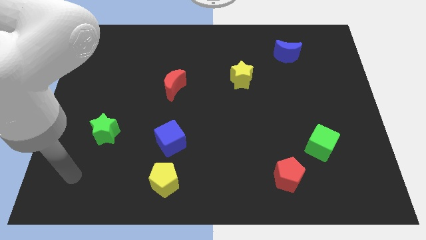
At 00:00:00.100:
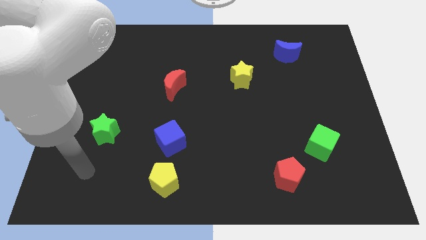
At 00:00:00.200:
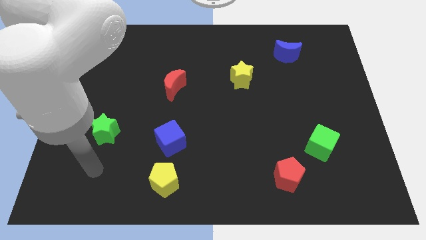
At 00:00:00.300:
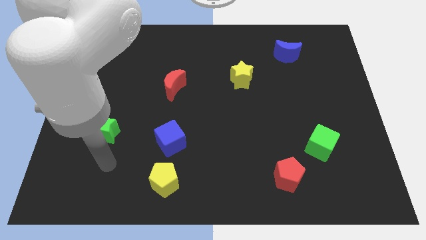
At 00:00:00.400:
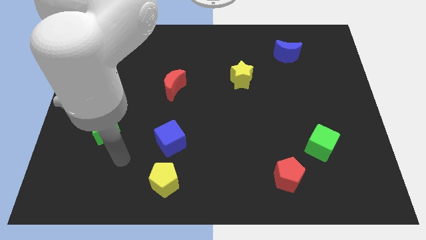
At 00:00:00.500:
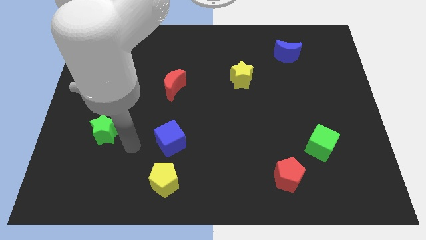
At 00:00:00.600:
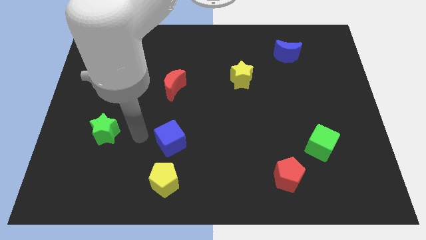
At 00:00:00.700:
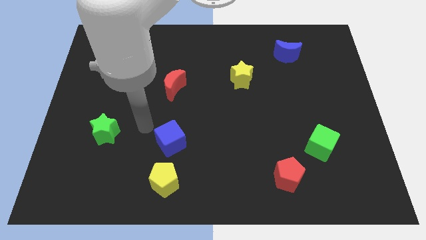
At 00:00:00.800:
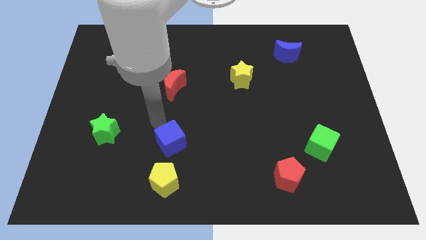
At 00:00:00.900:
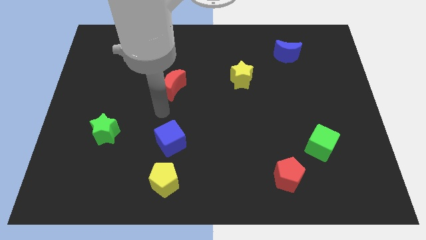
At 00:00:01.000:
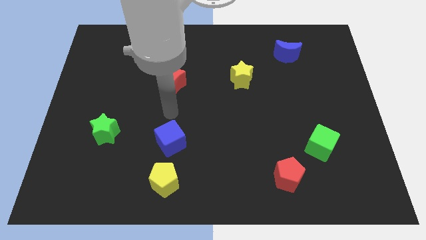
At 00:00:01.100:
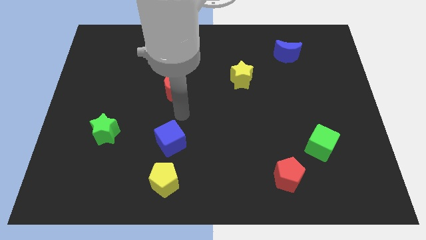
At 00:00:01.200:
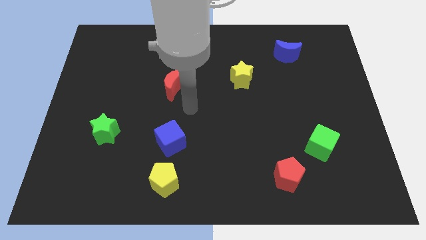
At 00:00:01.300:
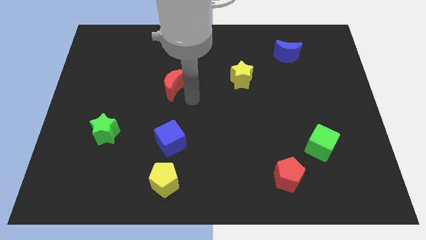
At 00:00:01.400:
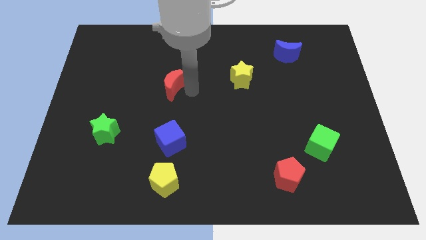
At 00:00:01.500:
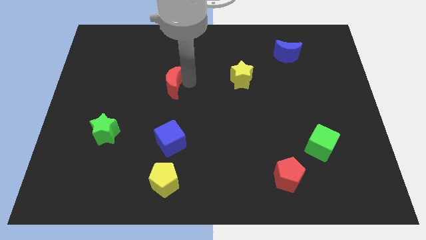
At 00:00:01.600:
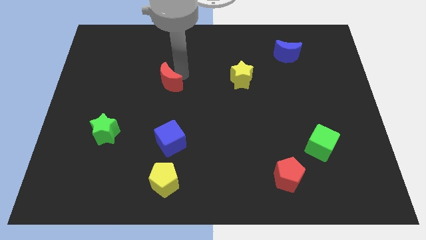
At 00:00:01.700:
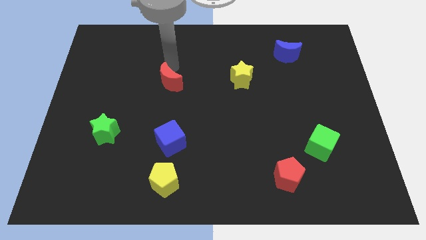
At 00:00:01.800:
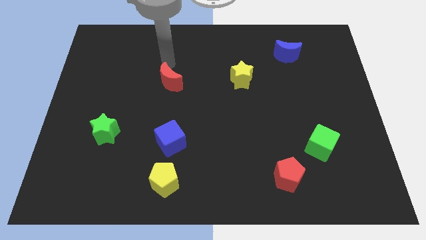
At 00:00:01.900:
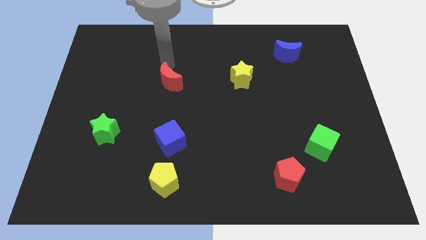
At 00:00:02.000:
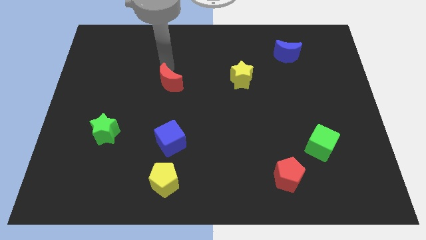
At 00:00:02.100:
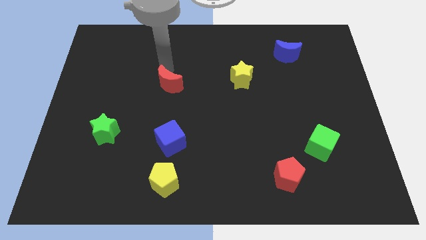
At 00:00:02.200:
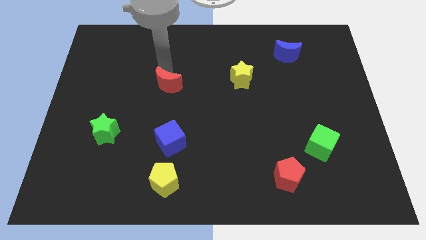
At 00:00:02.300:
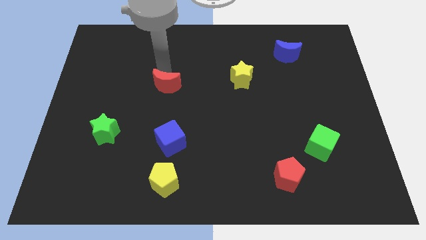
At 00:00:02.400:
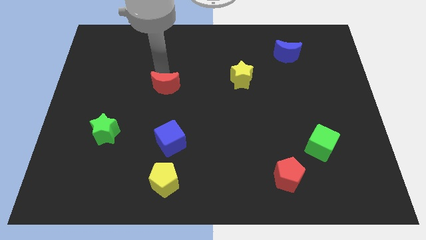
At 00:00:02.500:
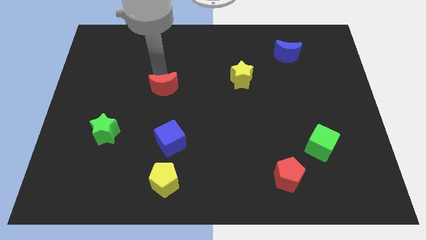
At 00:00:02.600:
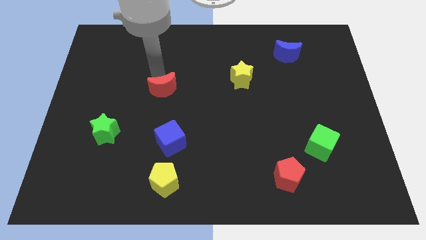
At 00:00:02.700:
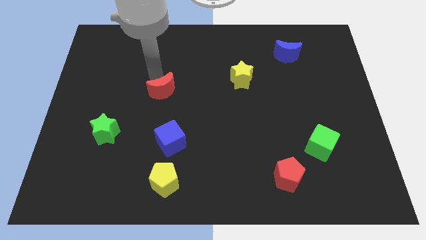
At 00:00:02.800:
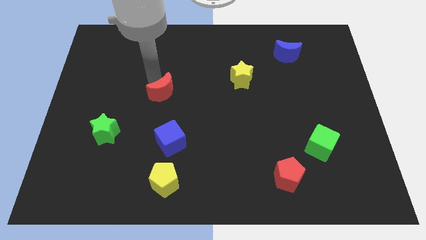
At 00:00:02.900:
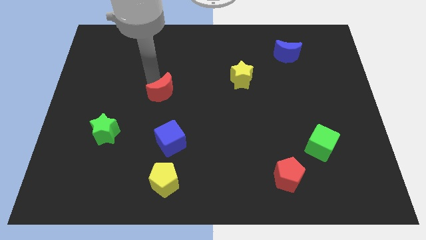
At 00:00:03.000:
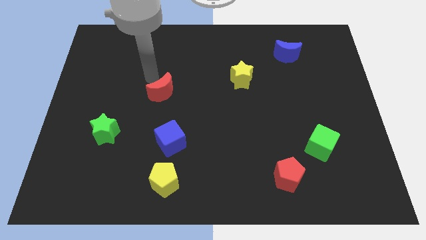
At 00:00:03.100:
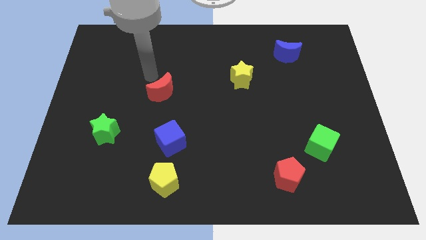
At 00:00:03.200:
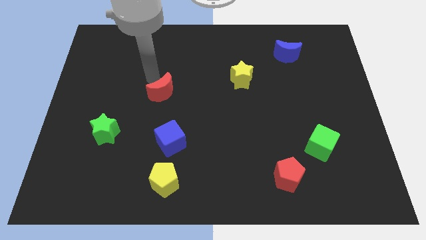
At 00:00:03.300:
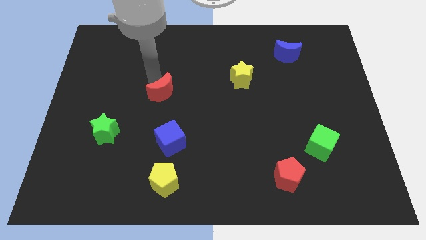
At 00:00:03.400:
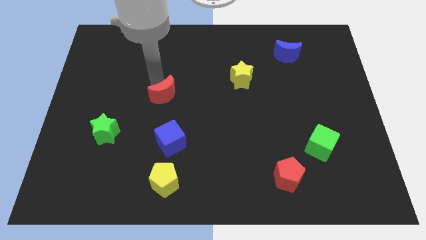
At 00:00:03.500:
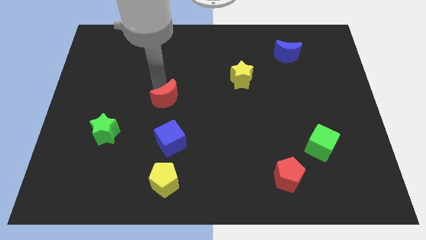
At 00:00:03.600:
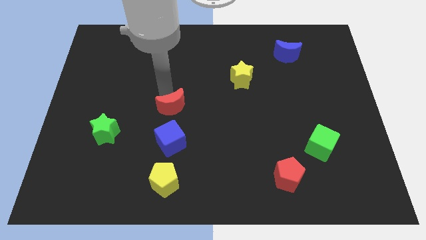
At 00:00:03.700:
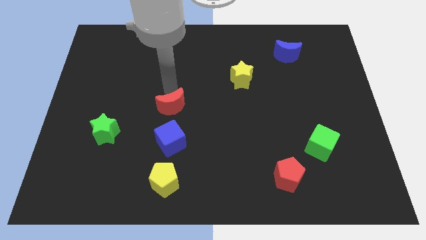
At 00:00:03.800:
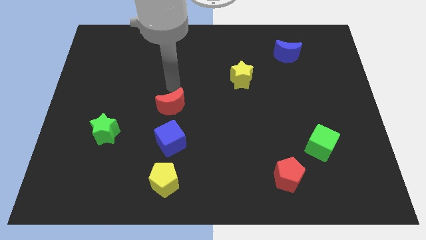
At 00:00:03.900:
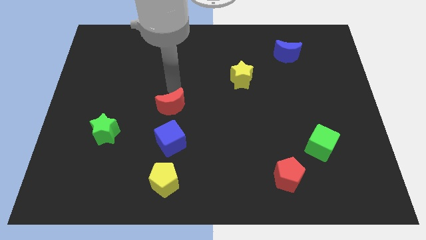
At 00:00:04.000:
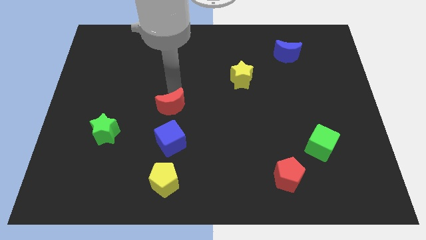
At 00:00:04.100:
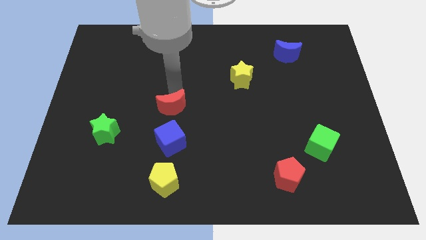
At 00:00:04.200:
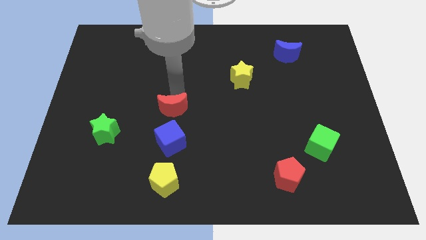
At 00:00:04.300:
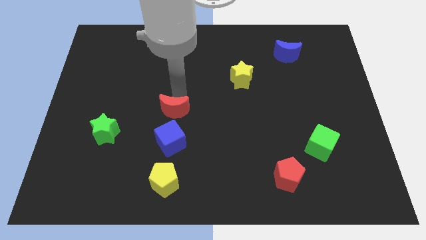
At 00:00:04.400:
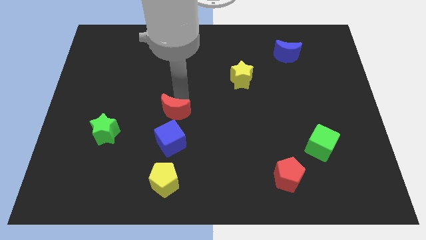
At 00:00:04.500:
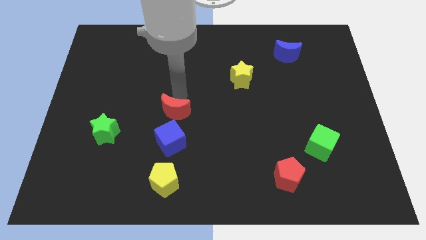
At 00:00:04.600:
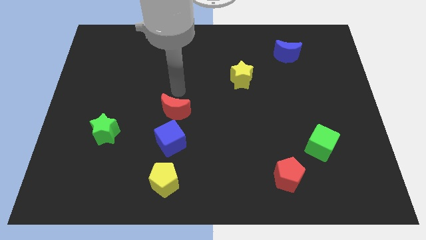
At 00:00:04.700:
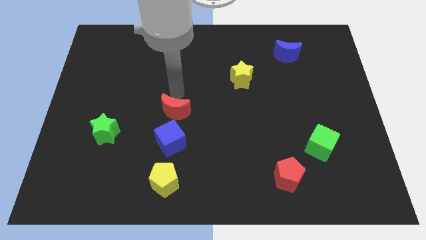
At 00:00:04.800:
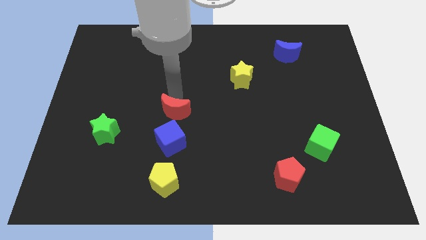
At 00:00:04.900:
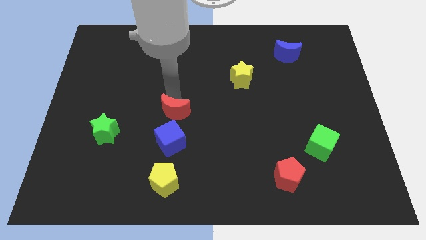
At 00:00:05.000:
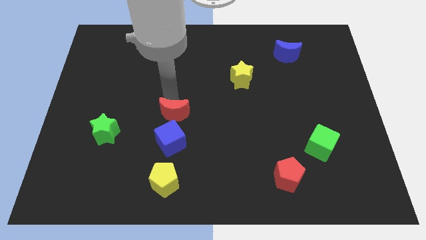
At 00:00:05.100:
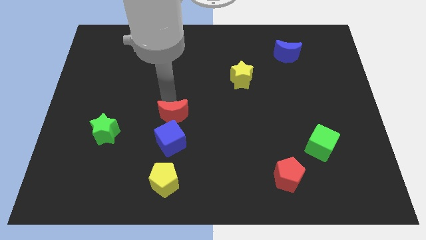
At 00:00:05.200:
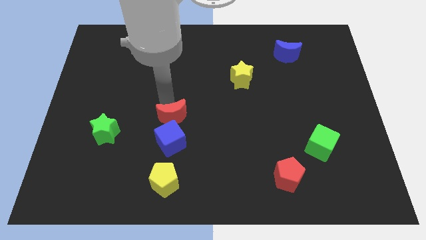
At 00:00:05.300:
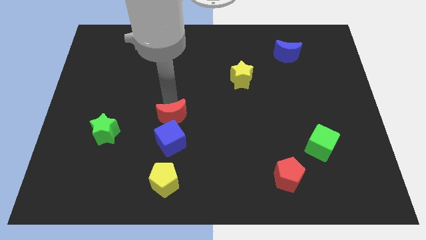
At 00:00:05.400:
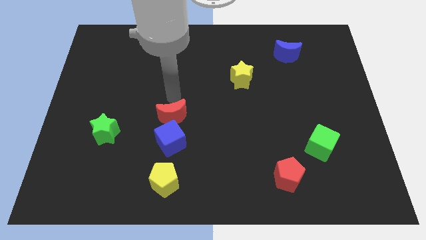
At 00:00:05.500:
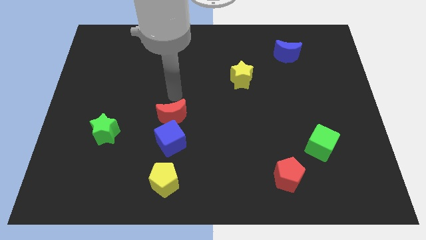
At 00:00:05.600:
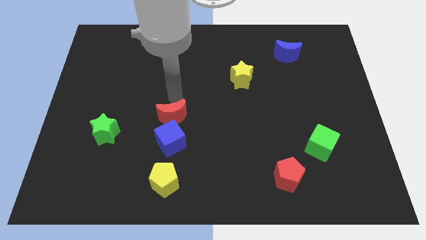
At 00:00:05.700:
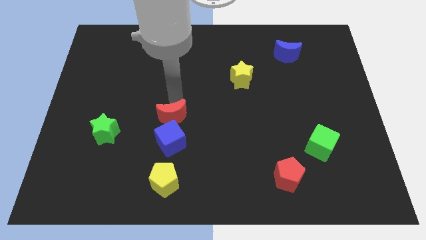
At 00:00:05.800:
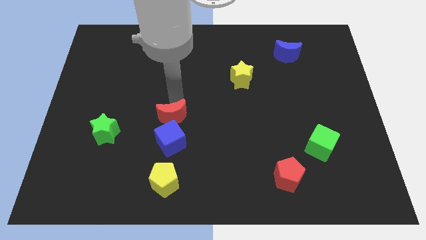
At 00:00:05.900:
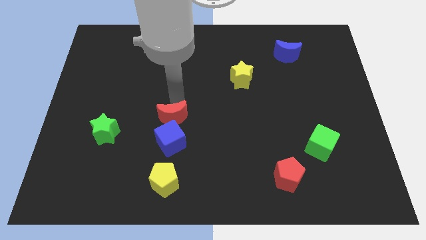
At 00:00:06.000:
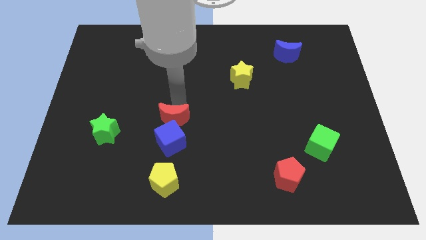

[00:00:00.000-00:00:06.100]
slide the red moon towards the blue cube
